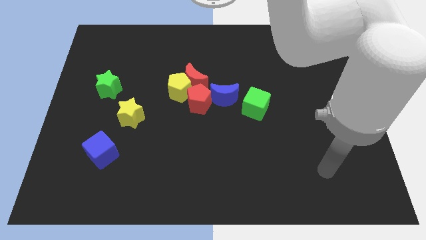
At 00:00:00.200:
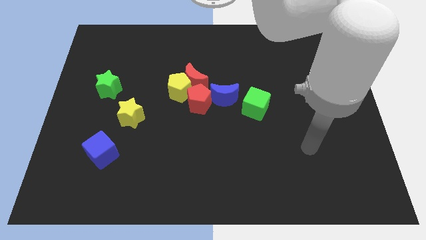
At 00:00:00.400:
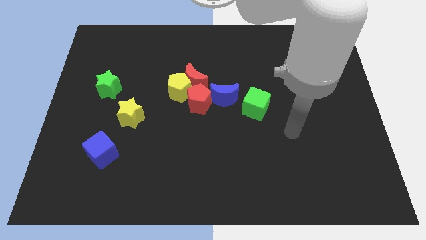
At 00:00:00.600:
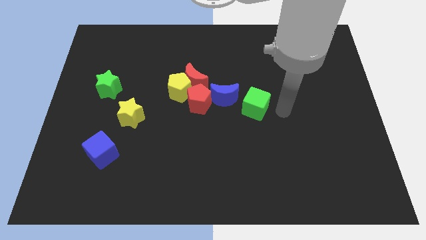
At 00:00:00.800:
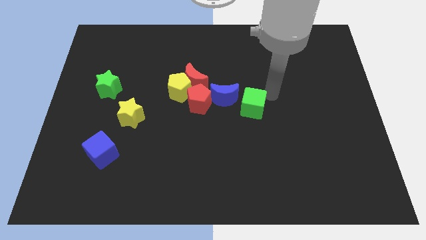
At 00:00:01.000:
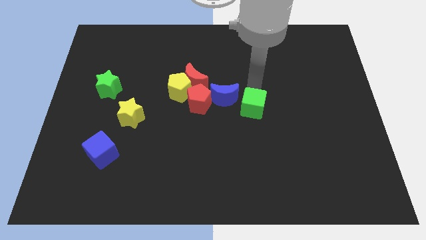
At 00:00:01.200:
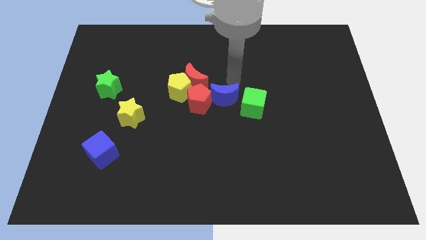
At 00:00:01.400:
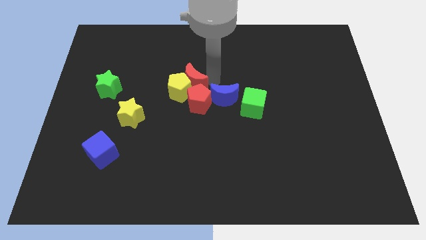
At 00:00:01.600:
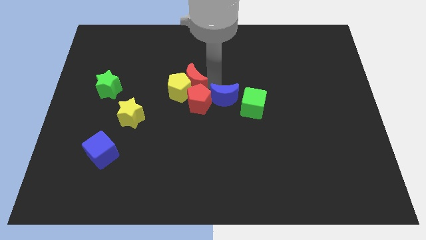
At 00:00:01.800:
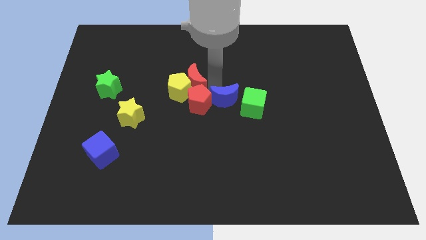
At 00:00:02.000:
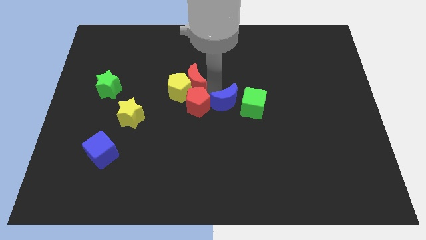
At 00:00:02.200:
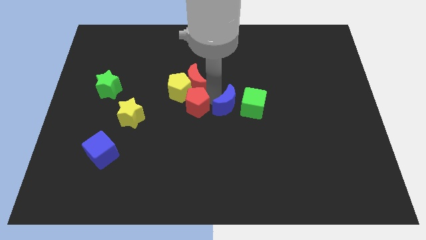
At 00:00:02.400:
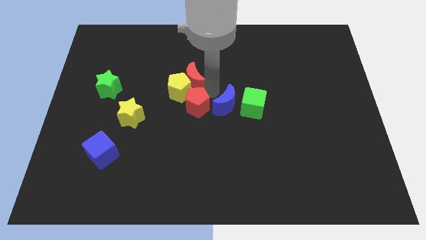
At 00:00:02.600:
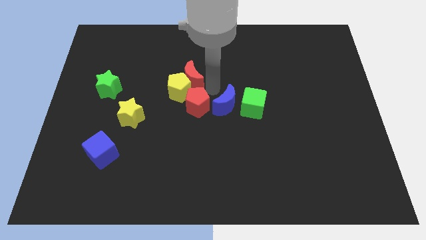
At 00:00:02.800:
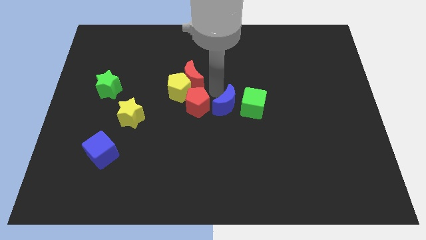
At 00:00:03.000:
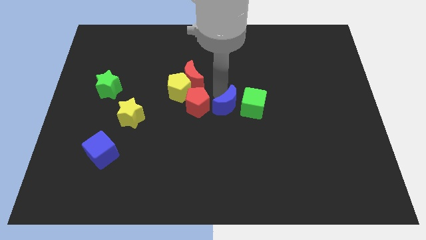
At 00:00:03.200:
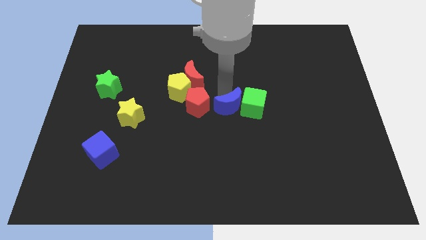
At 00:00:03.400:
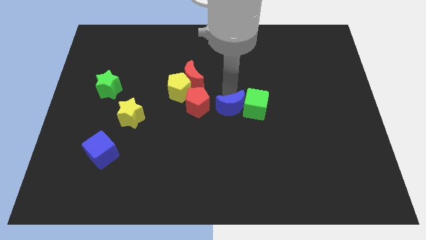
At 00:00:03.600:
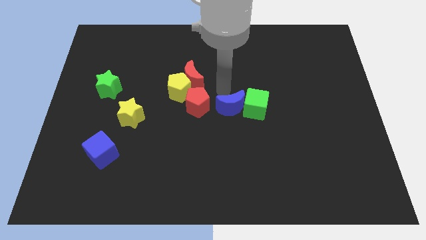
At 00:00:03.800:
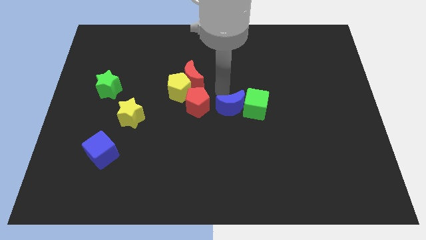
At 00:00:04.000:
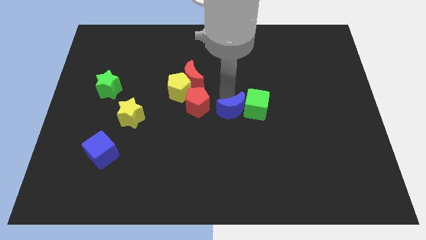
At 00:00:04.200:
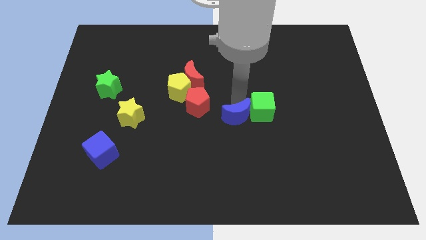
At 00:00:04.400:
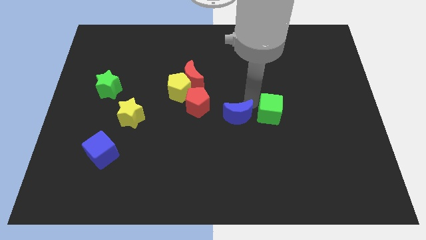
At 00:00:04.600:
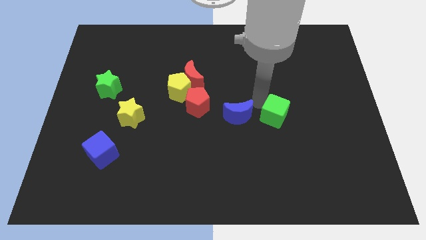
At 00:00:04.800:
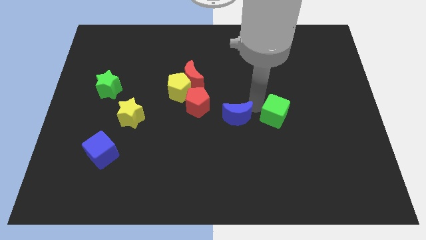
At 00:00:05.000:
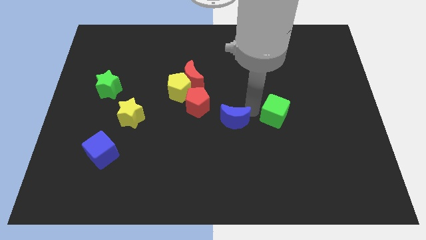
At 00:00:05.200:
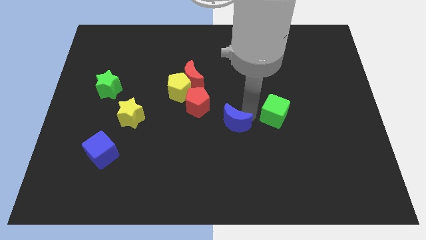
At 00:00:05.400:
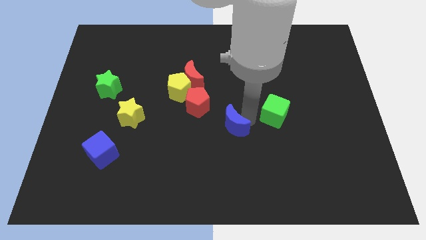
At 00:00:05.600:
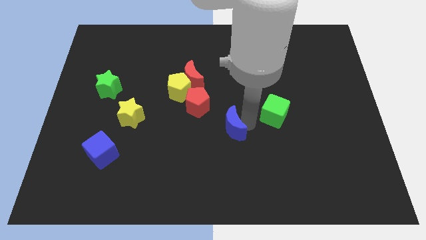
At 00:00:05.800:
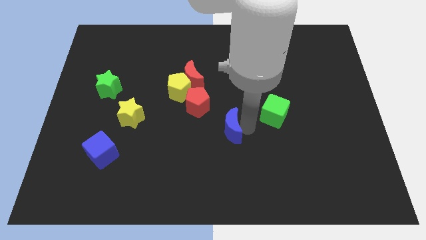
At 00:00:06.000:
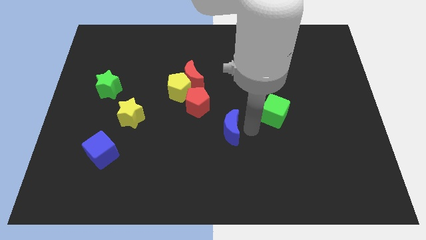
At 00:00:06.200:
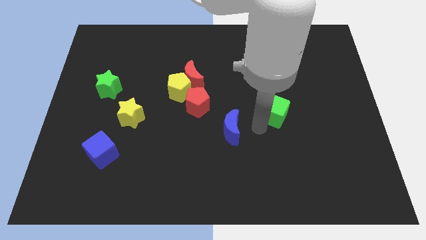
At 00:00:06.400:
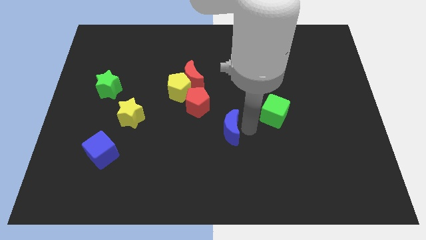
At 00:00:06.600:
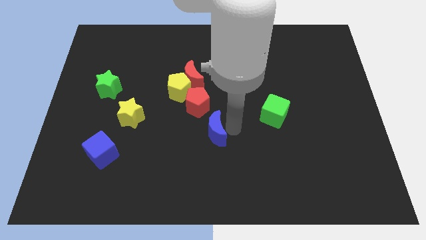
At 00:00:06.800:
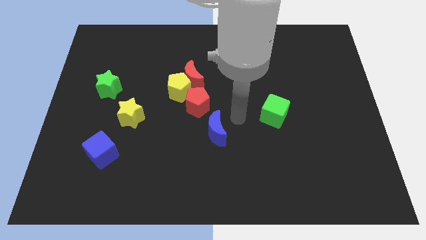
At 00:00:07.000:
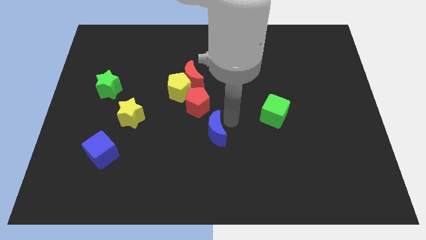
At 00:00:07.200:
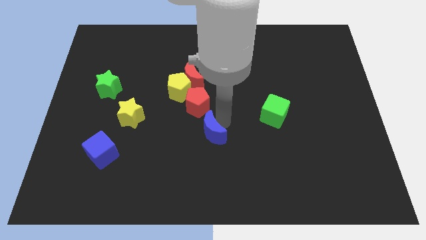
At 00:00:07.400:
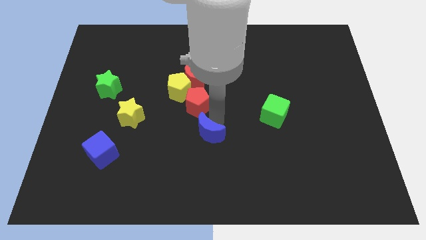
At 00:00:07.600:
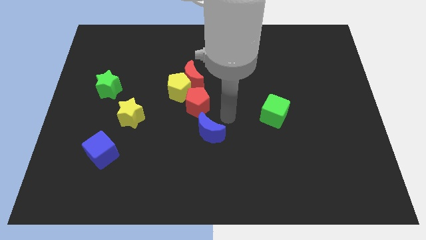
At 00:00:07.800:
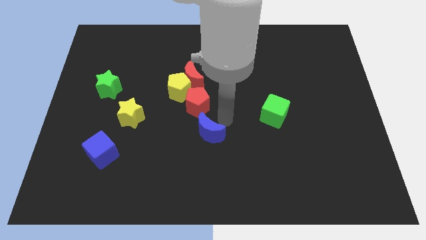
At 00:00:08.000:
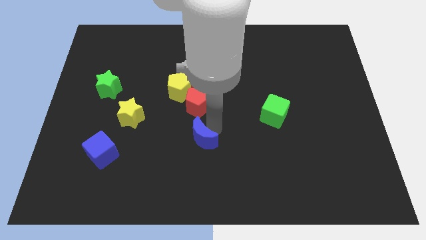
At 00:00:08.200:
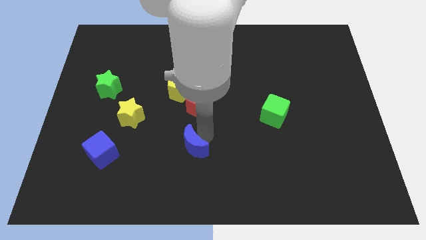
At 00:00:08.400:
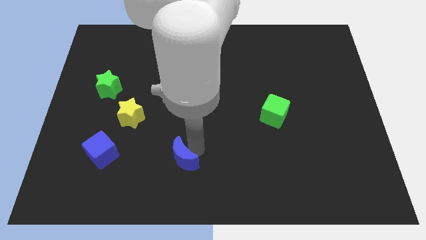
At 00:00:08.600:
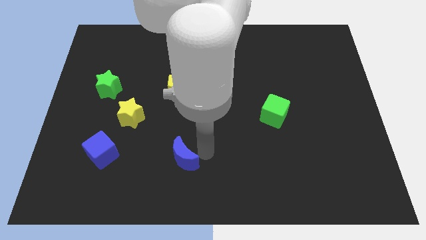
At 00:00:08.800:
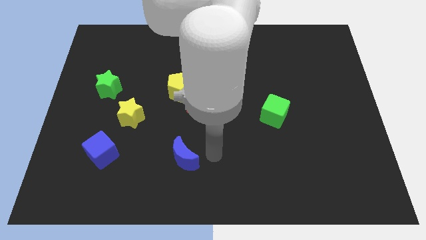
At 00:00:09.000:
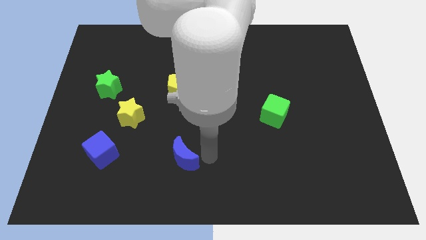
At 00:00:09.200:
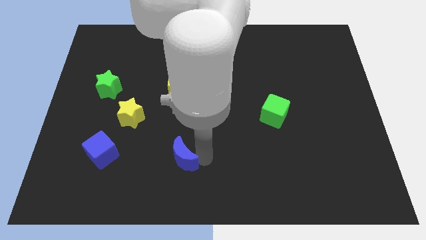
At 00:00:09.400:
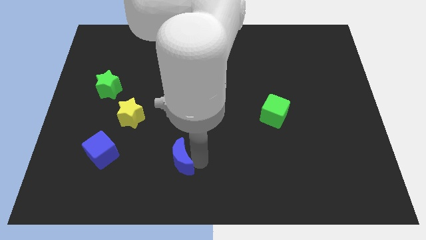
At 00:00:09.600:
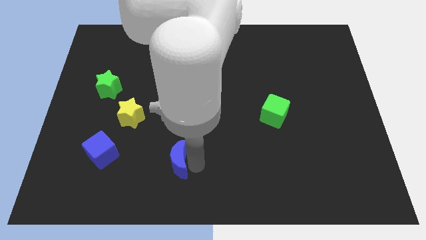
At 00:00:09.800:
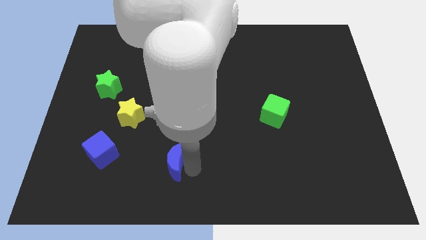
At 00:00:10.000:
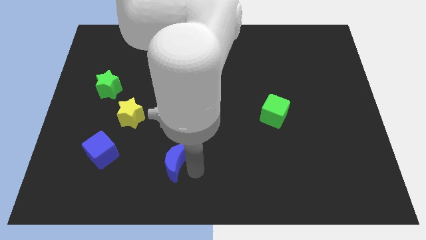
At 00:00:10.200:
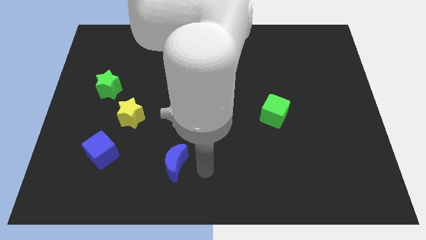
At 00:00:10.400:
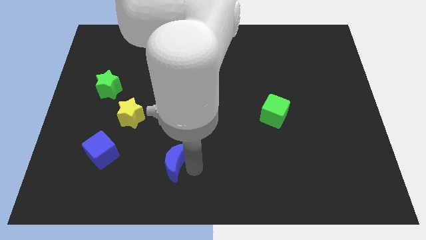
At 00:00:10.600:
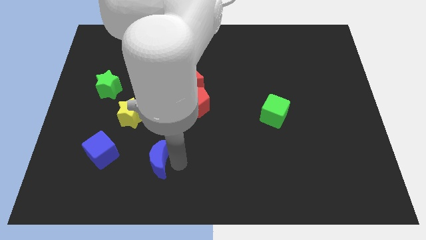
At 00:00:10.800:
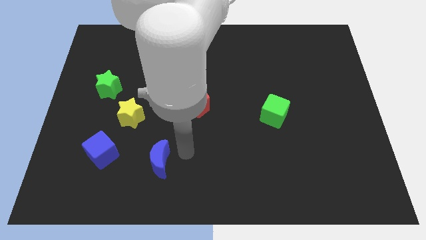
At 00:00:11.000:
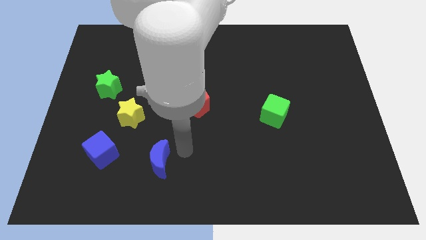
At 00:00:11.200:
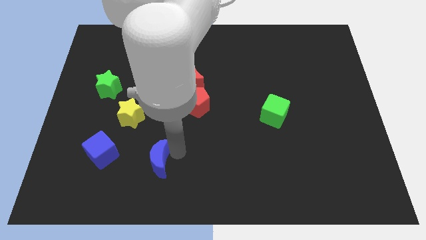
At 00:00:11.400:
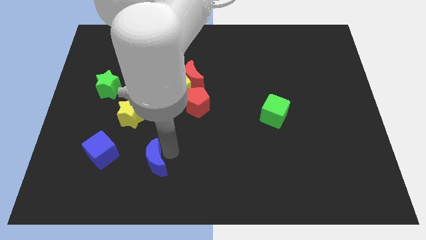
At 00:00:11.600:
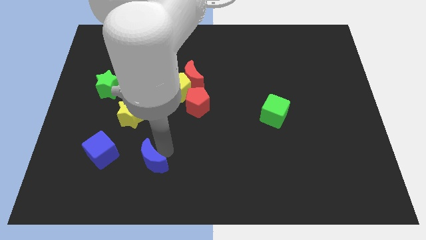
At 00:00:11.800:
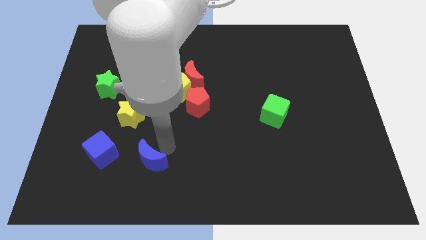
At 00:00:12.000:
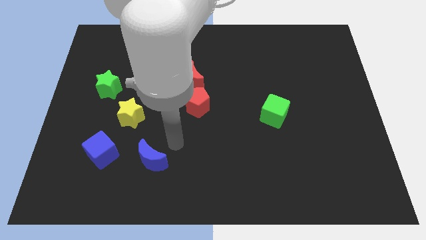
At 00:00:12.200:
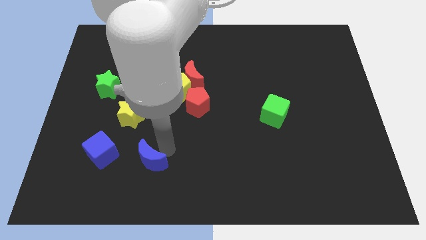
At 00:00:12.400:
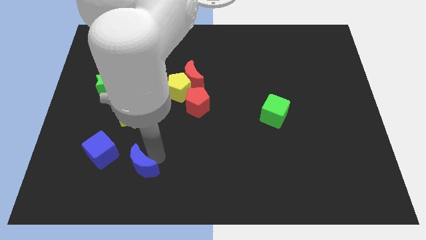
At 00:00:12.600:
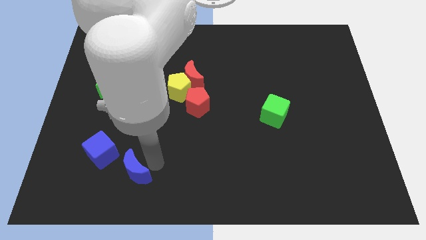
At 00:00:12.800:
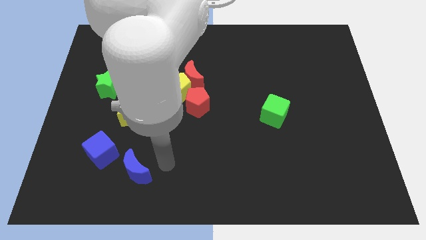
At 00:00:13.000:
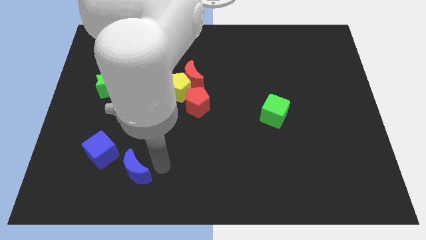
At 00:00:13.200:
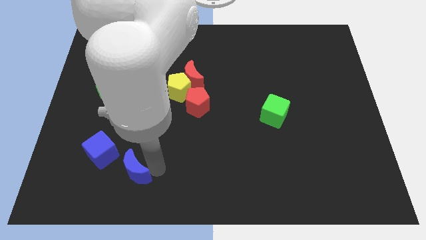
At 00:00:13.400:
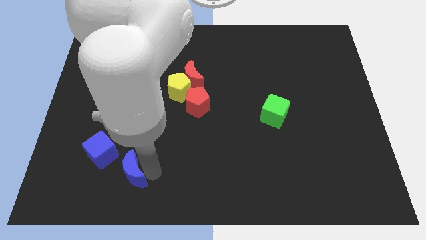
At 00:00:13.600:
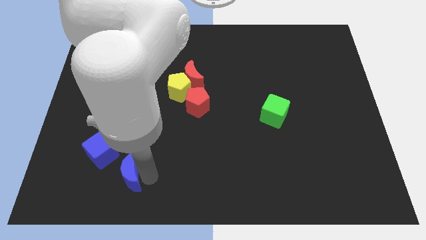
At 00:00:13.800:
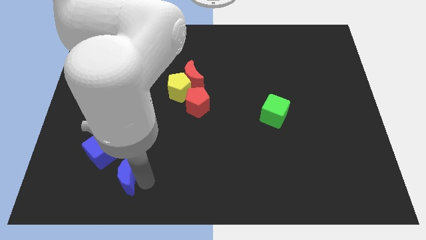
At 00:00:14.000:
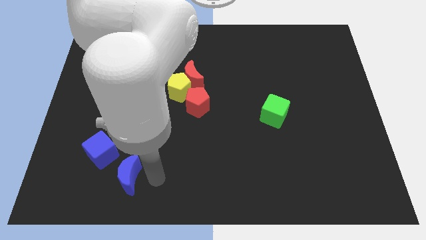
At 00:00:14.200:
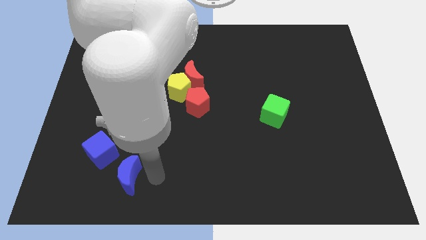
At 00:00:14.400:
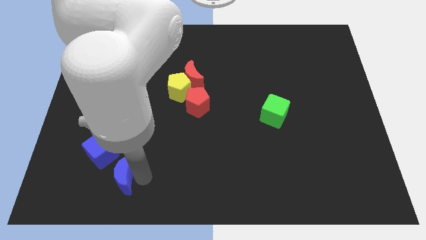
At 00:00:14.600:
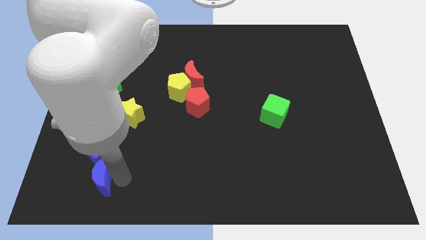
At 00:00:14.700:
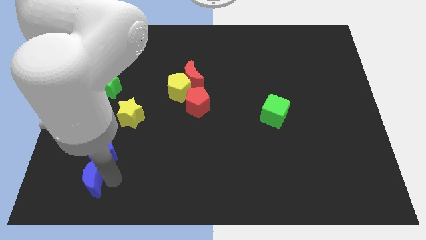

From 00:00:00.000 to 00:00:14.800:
push the blue moon diagonally down and to the left of the blue cube
